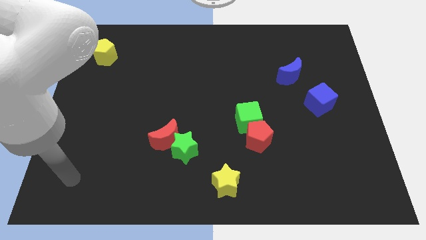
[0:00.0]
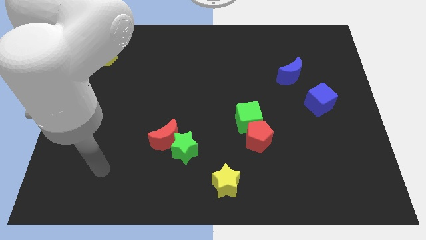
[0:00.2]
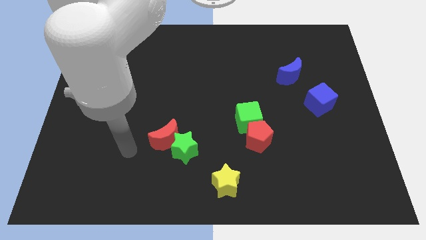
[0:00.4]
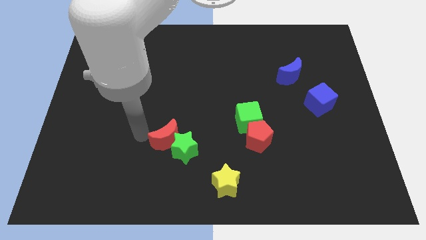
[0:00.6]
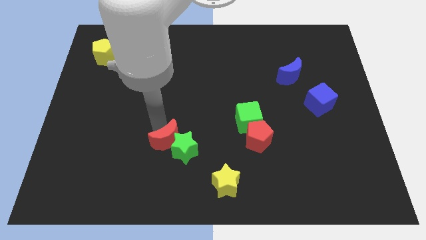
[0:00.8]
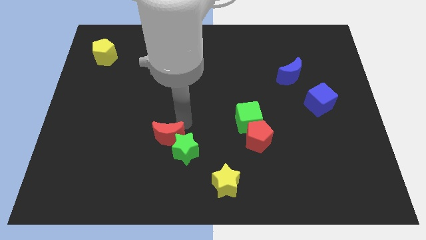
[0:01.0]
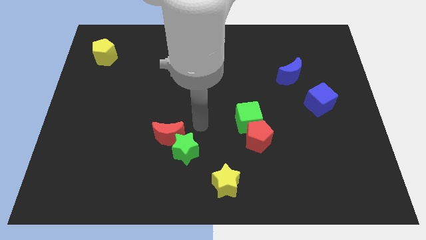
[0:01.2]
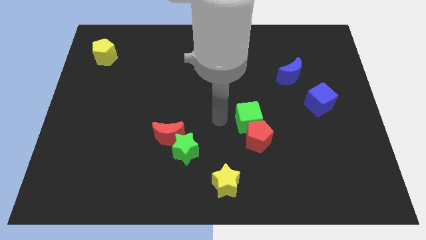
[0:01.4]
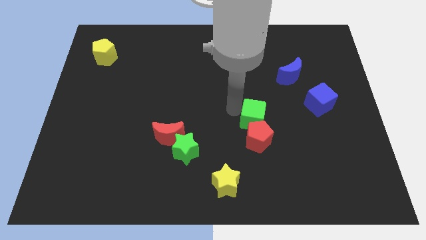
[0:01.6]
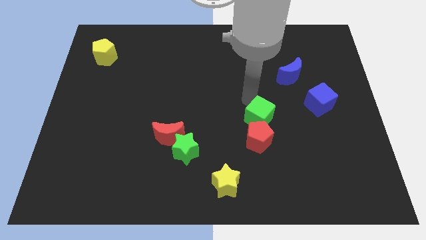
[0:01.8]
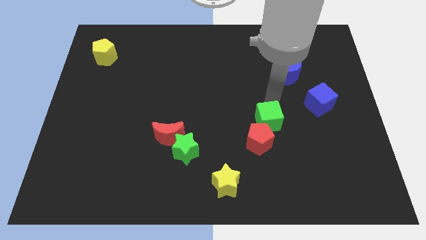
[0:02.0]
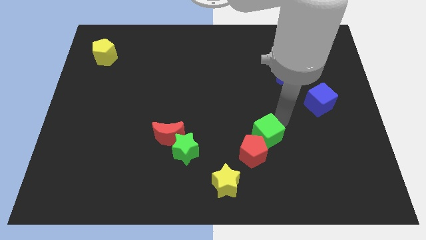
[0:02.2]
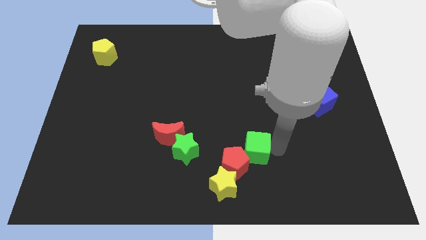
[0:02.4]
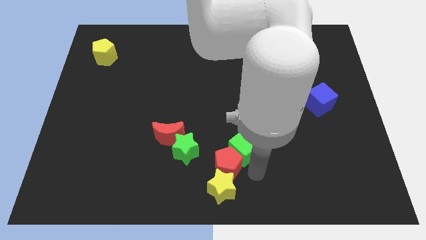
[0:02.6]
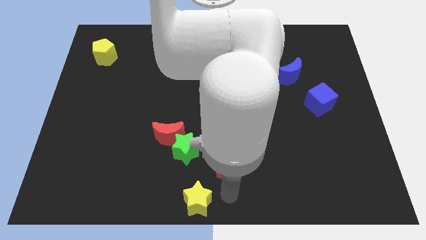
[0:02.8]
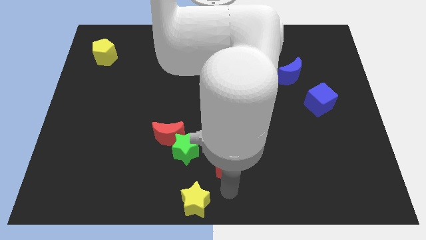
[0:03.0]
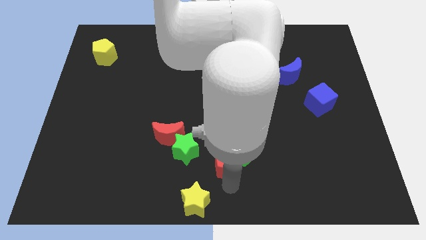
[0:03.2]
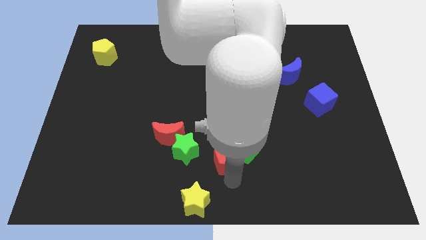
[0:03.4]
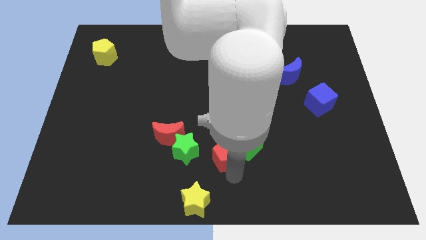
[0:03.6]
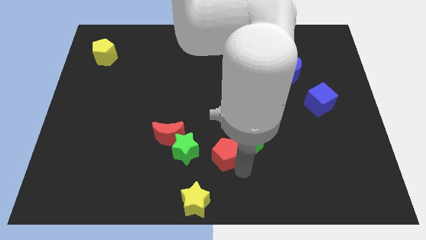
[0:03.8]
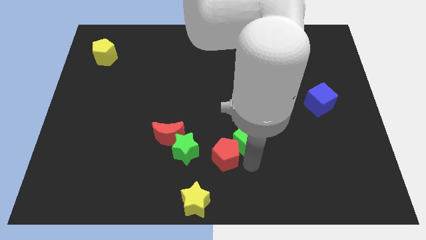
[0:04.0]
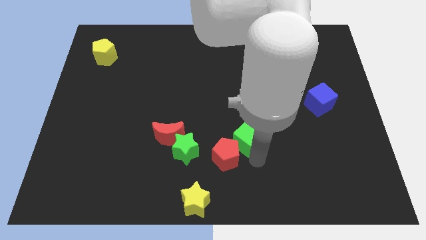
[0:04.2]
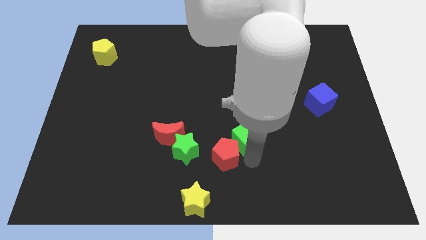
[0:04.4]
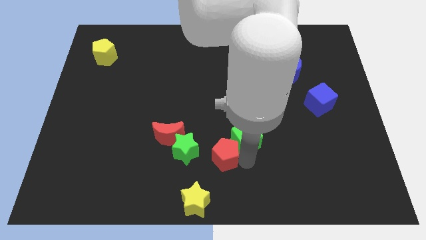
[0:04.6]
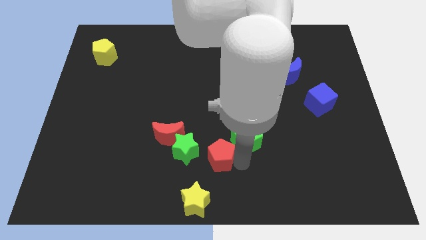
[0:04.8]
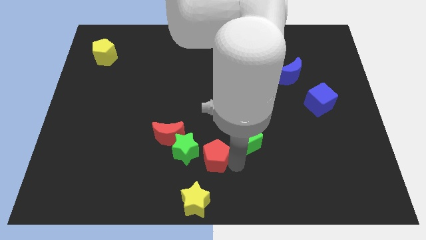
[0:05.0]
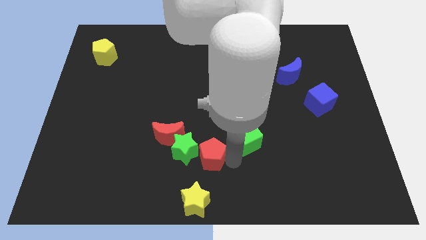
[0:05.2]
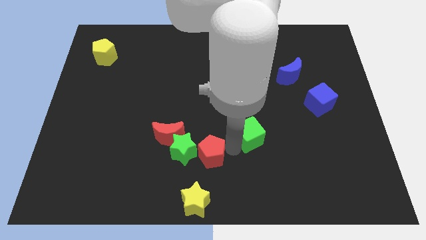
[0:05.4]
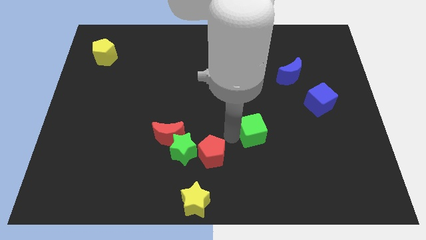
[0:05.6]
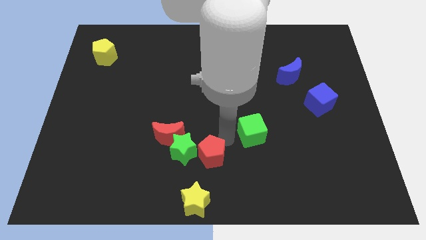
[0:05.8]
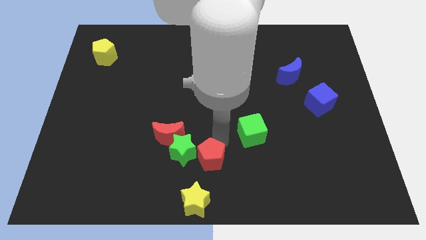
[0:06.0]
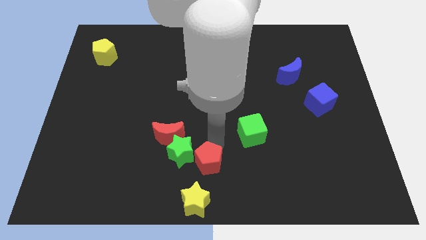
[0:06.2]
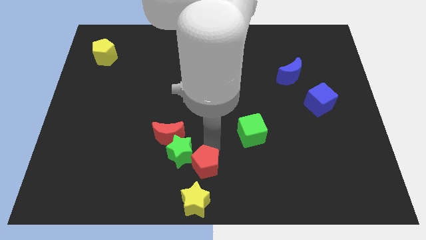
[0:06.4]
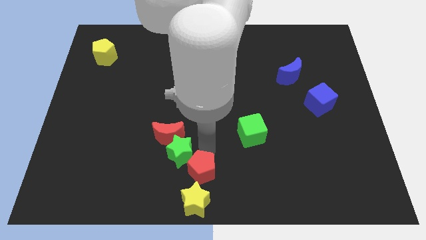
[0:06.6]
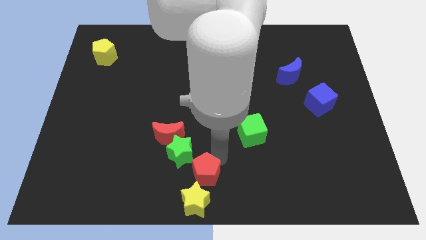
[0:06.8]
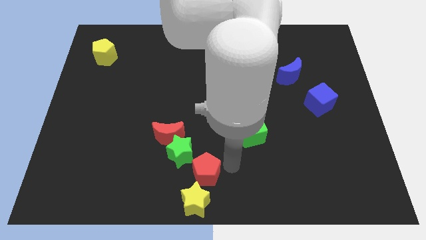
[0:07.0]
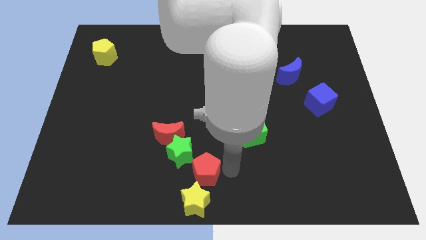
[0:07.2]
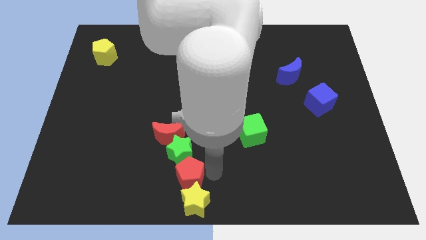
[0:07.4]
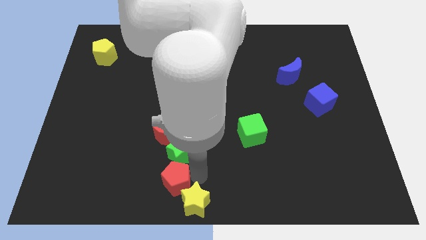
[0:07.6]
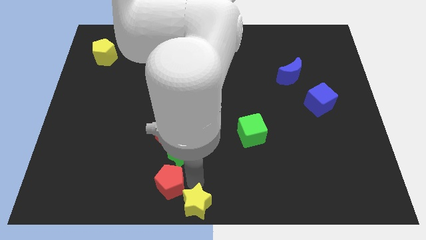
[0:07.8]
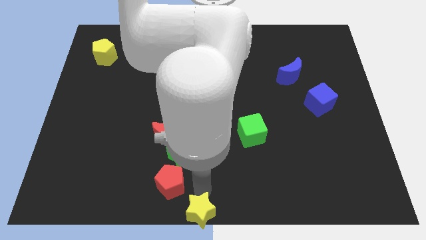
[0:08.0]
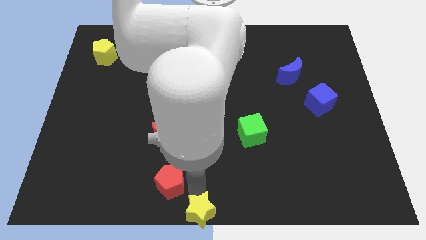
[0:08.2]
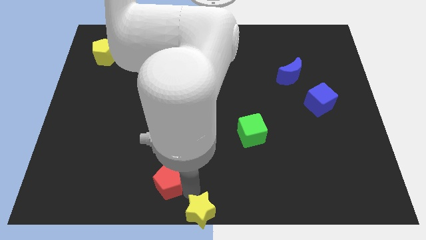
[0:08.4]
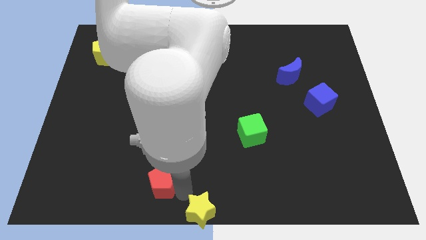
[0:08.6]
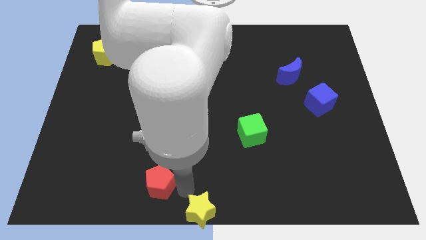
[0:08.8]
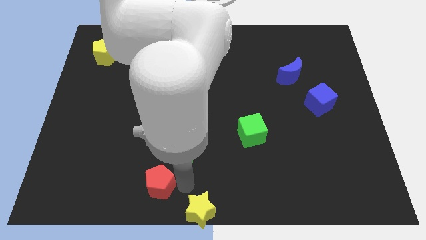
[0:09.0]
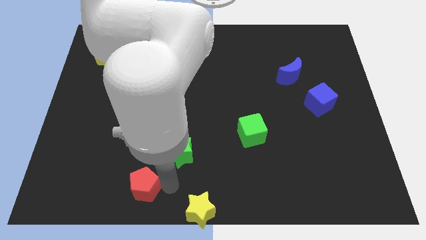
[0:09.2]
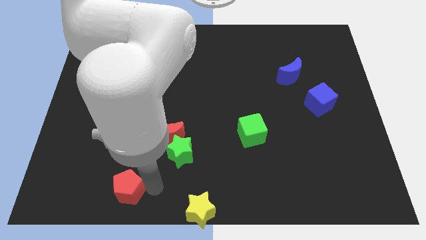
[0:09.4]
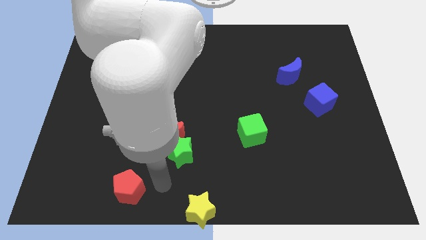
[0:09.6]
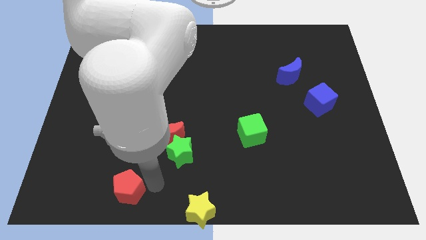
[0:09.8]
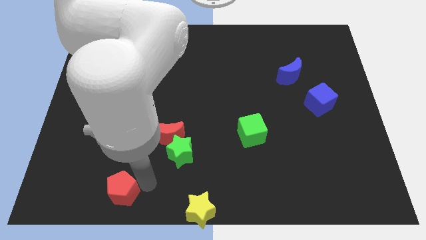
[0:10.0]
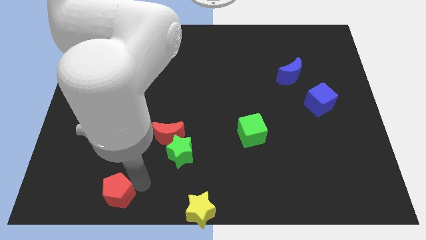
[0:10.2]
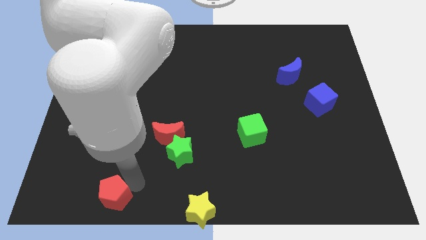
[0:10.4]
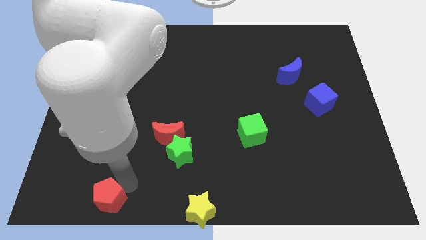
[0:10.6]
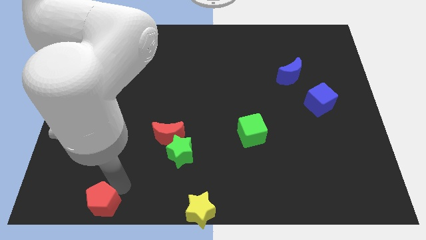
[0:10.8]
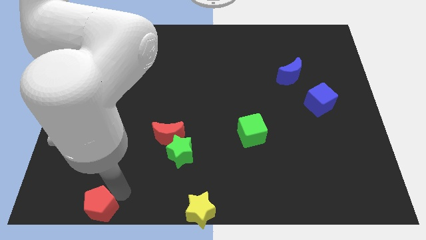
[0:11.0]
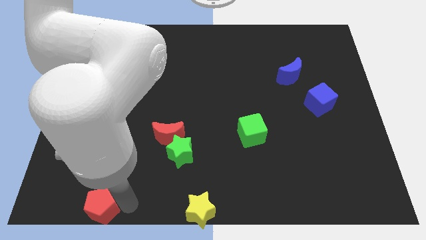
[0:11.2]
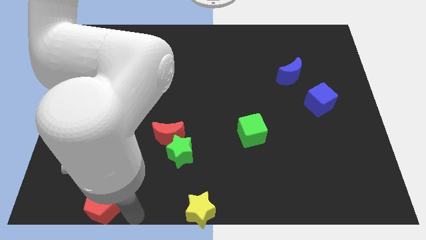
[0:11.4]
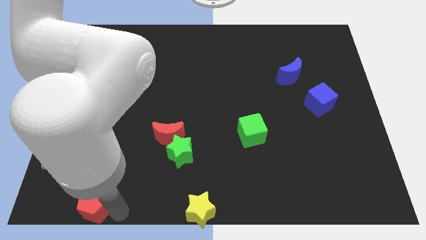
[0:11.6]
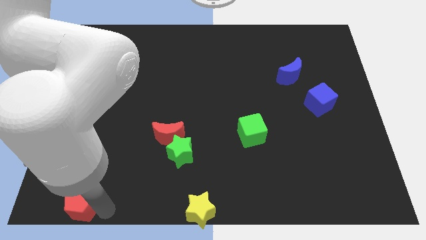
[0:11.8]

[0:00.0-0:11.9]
push the red pentagon to the bottom left corner

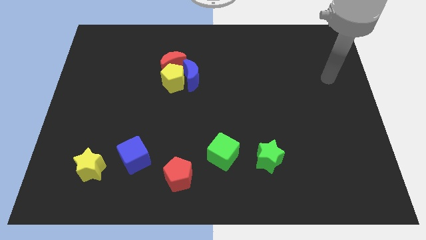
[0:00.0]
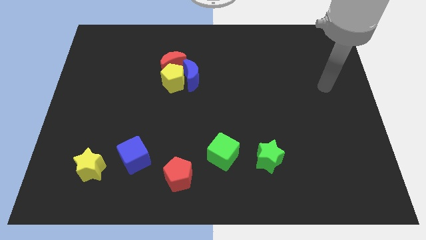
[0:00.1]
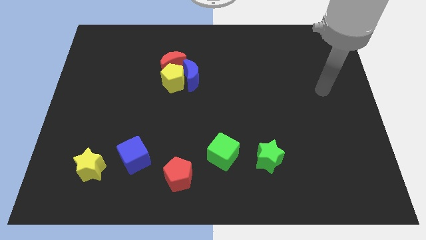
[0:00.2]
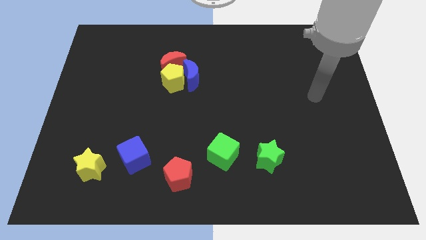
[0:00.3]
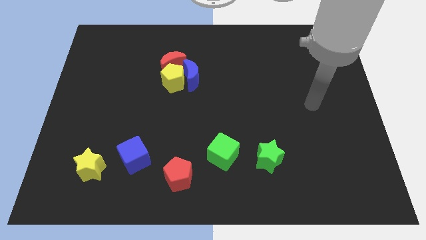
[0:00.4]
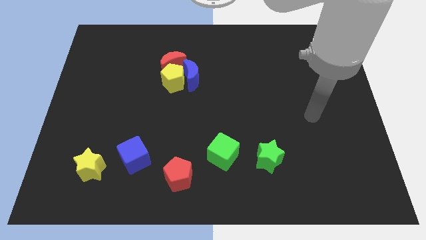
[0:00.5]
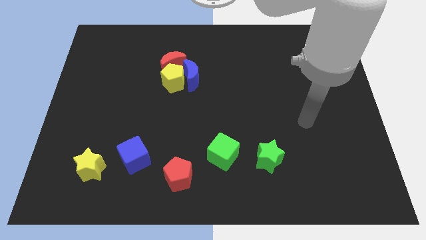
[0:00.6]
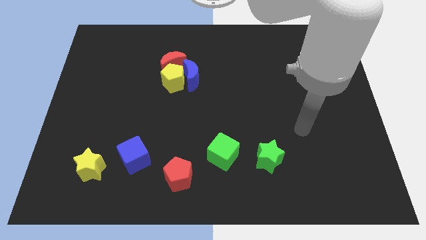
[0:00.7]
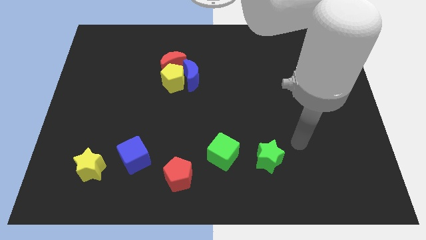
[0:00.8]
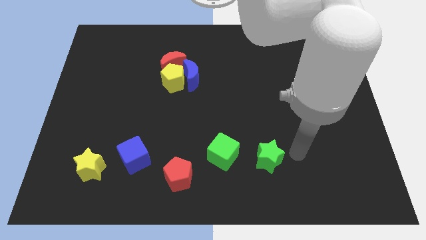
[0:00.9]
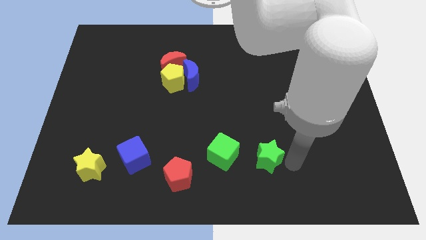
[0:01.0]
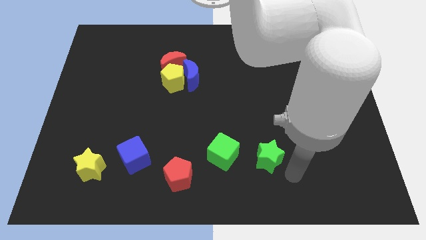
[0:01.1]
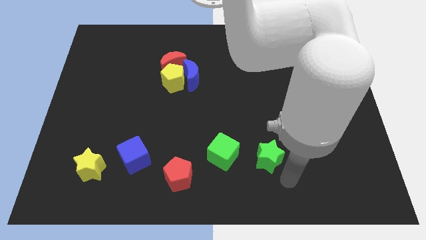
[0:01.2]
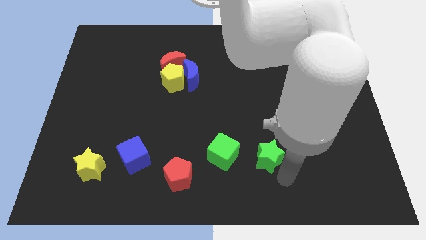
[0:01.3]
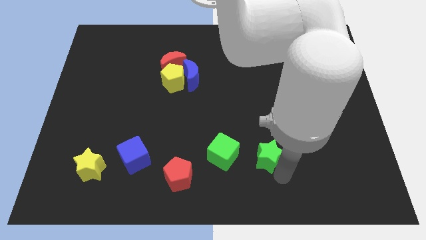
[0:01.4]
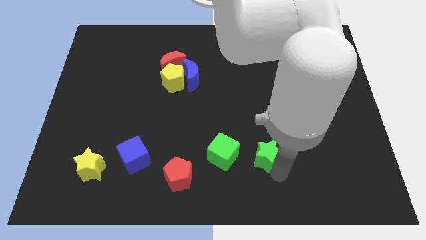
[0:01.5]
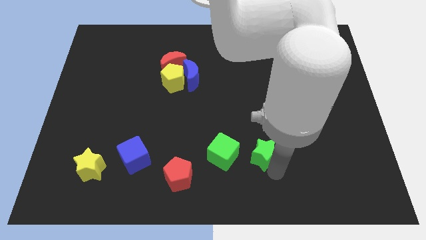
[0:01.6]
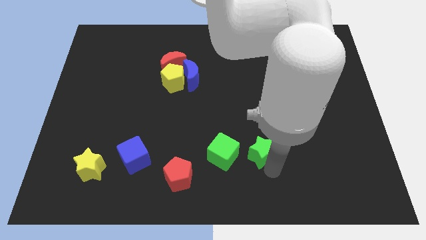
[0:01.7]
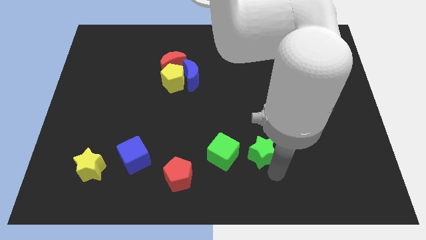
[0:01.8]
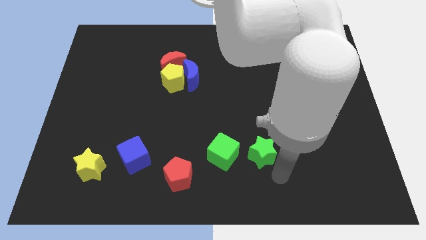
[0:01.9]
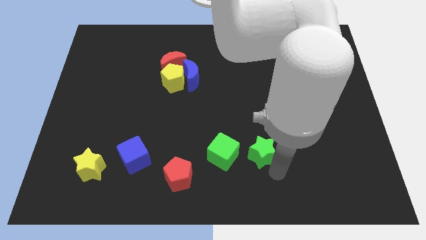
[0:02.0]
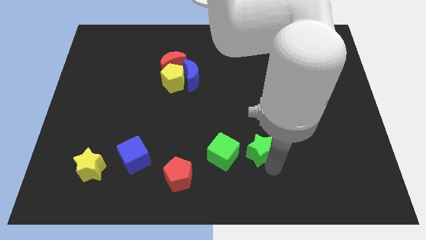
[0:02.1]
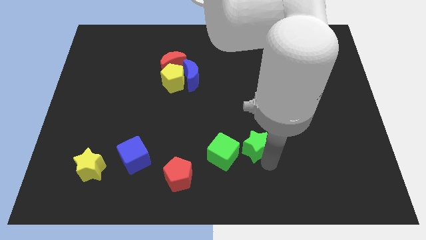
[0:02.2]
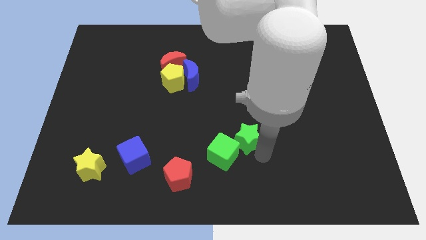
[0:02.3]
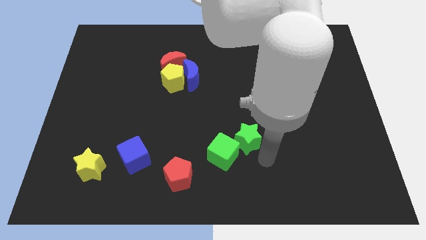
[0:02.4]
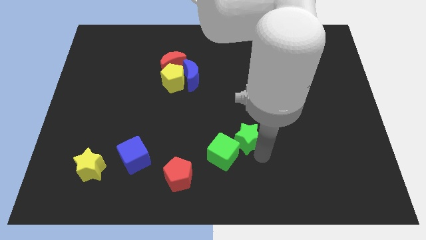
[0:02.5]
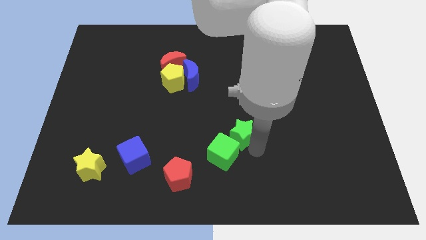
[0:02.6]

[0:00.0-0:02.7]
slide the green star to the middle of the board
